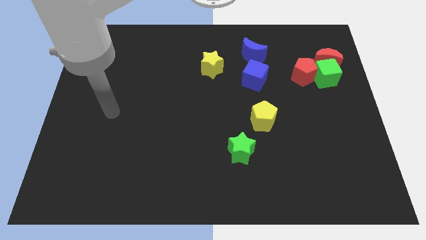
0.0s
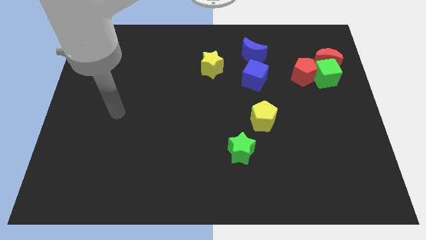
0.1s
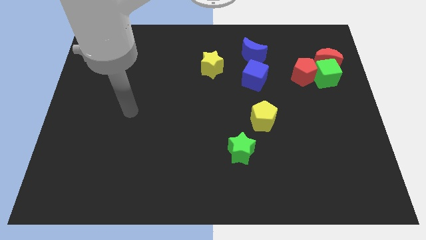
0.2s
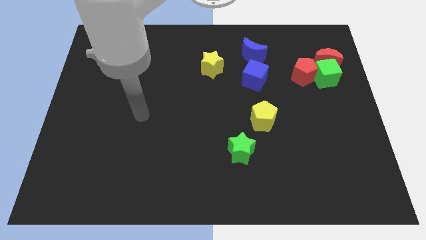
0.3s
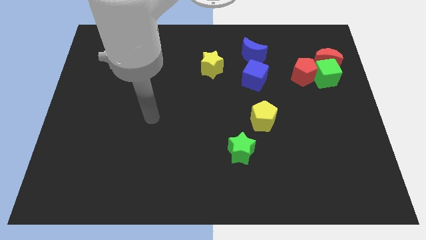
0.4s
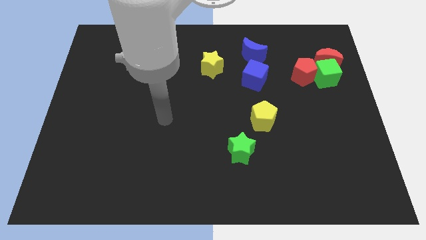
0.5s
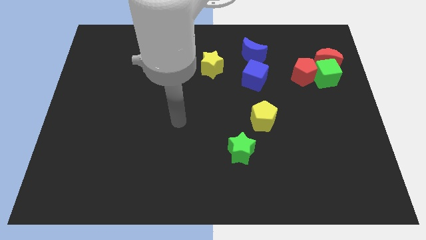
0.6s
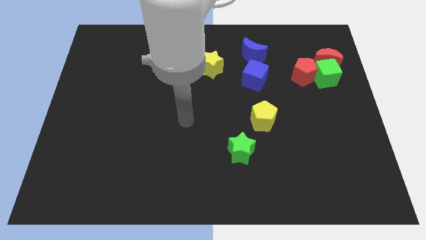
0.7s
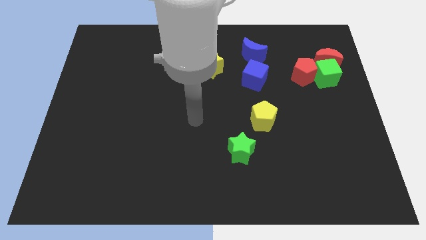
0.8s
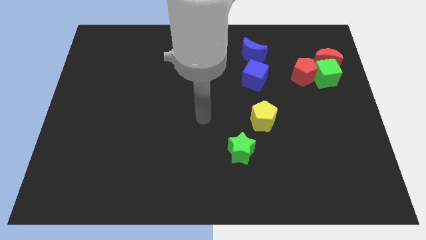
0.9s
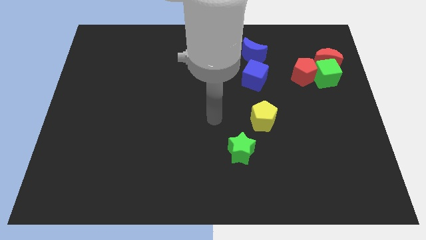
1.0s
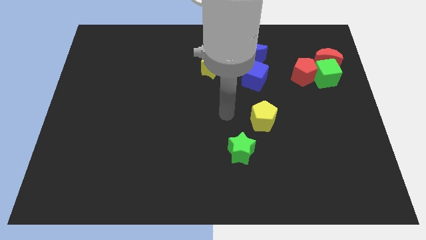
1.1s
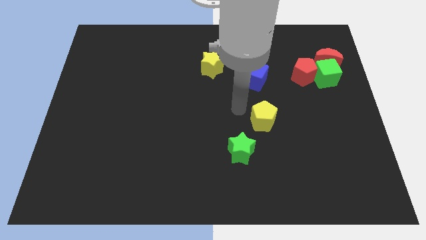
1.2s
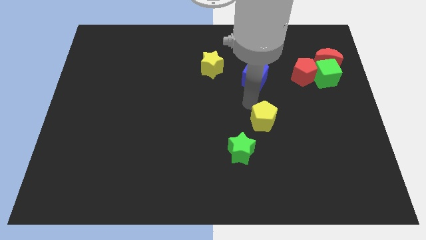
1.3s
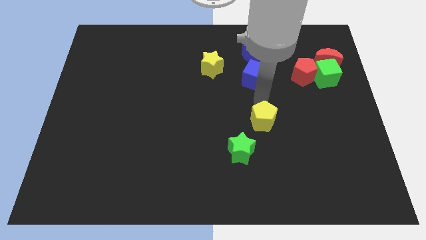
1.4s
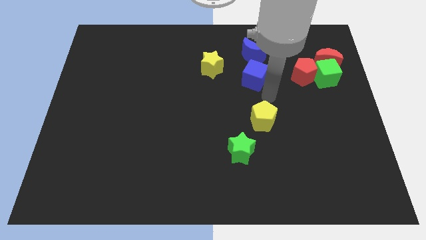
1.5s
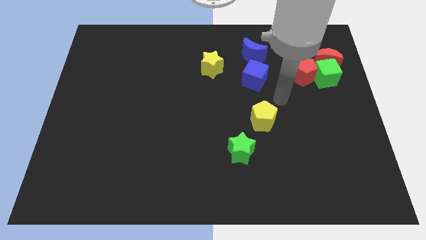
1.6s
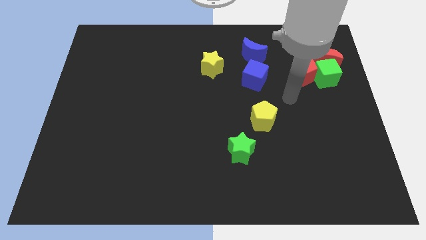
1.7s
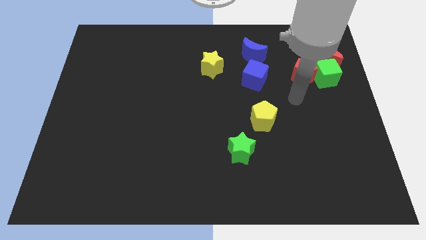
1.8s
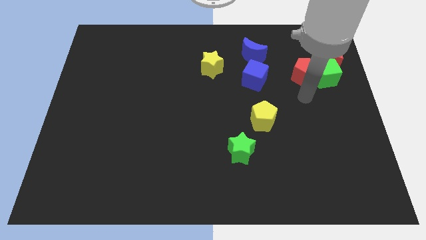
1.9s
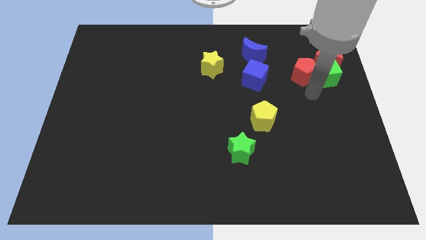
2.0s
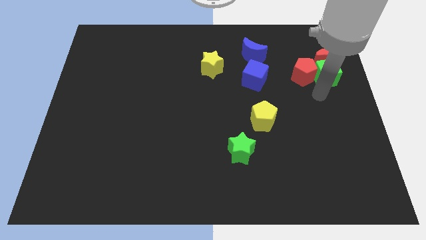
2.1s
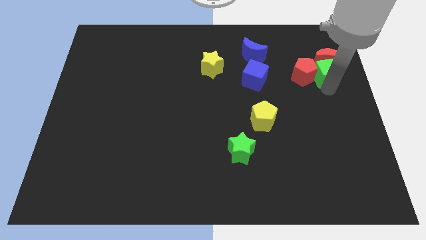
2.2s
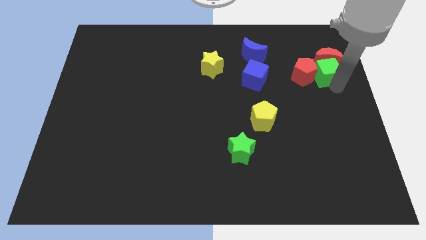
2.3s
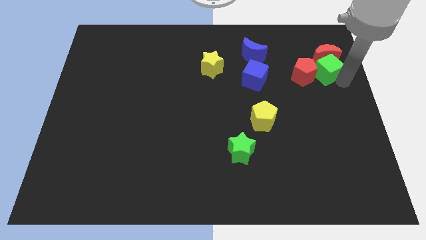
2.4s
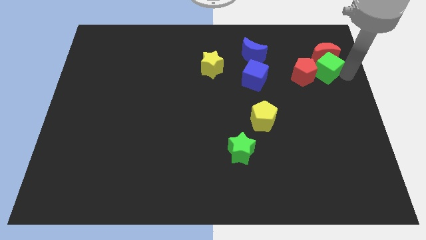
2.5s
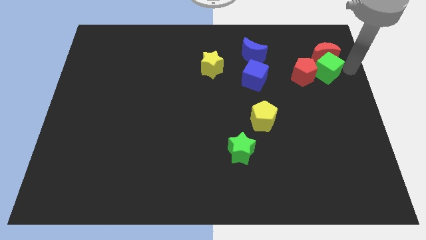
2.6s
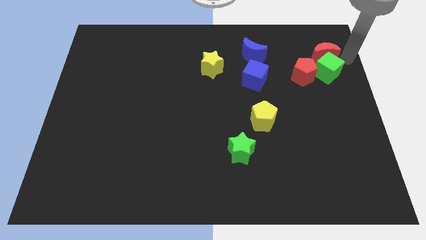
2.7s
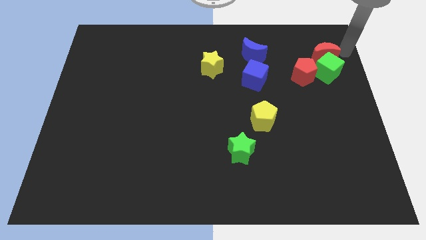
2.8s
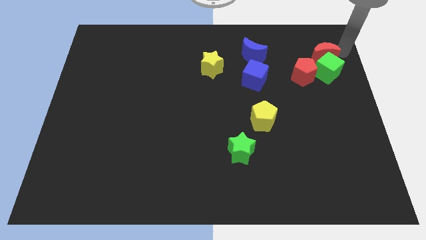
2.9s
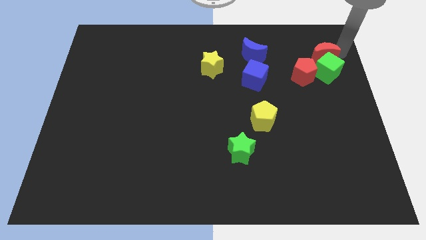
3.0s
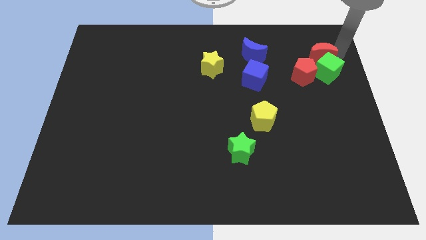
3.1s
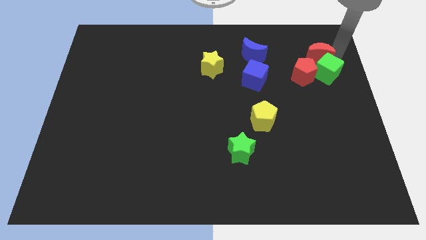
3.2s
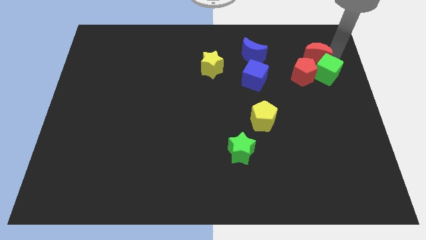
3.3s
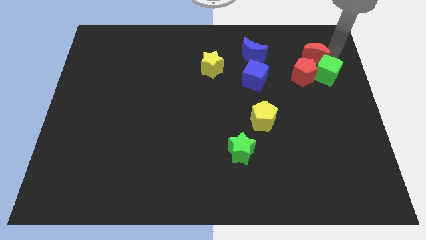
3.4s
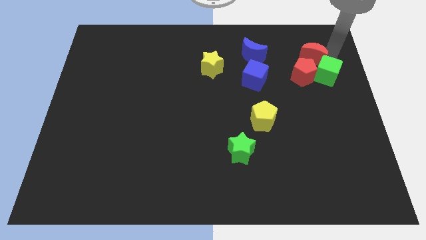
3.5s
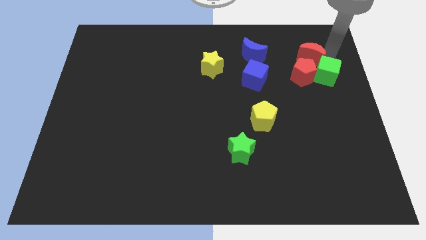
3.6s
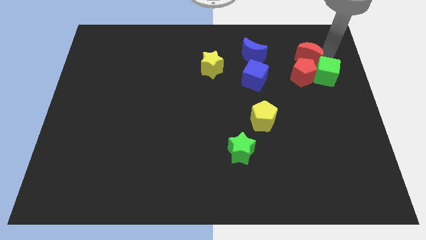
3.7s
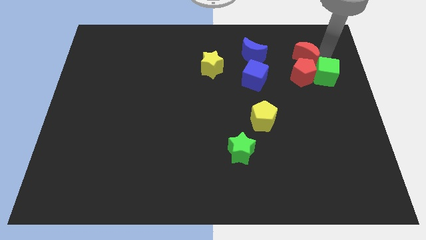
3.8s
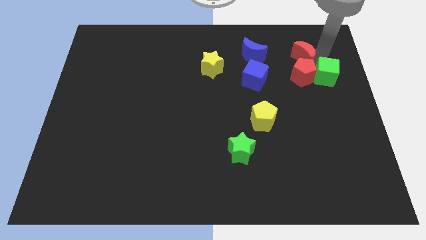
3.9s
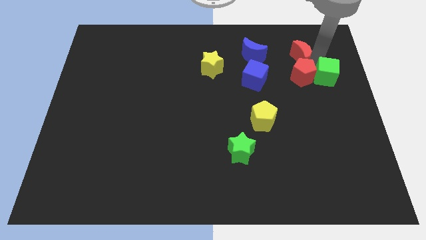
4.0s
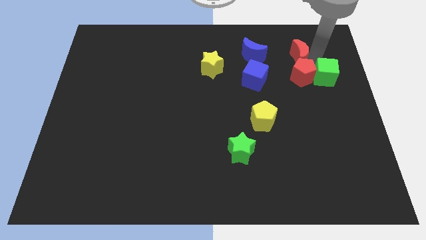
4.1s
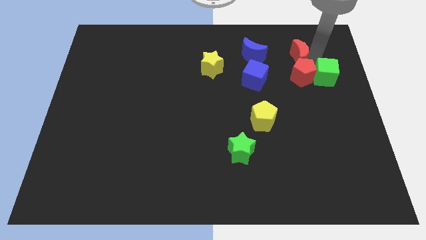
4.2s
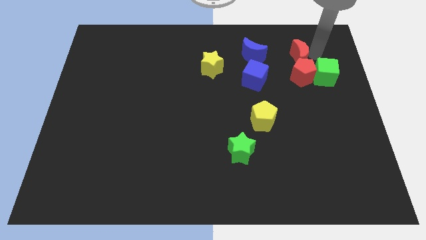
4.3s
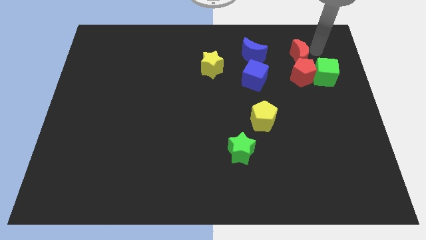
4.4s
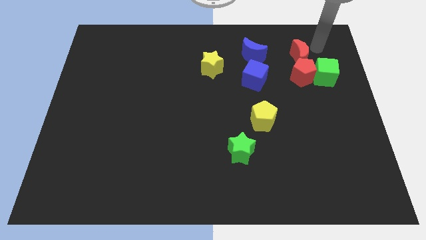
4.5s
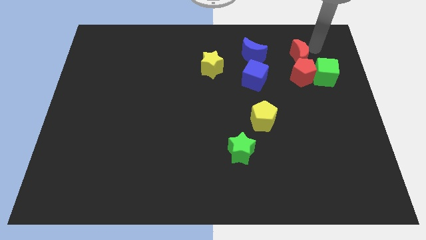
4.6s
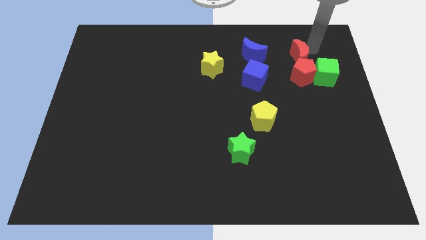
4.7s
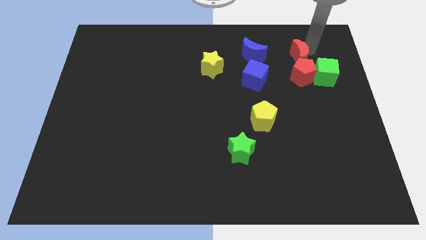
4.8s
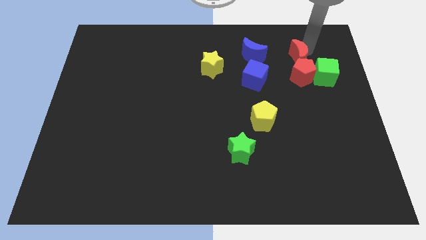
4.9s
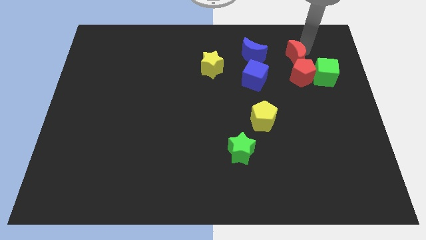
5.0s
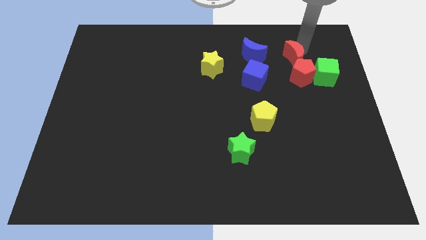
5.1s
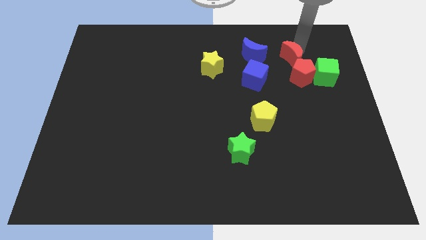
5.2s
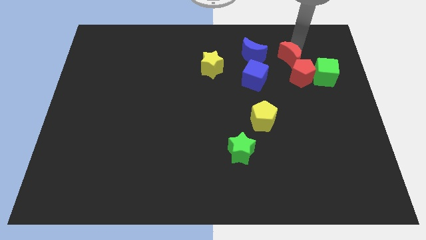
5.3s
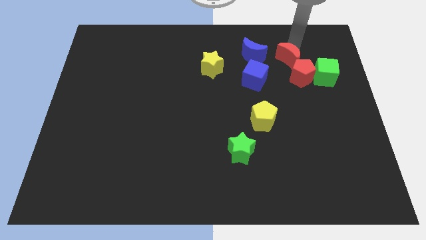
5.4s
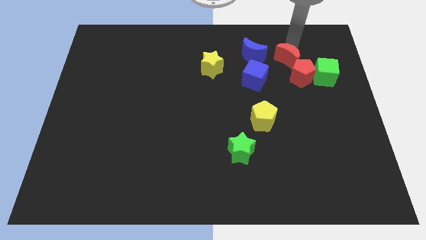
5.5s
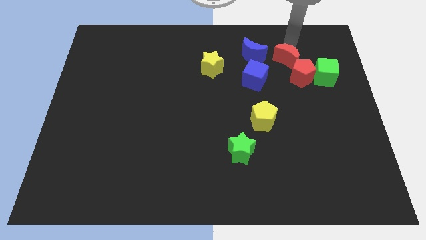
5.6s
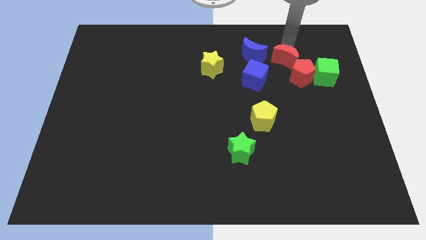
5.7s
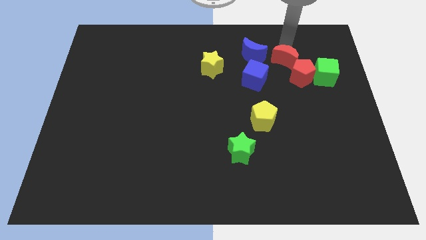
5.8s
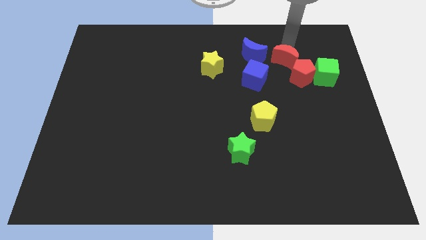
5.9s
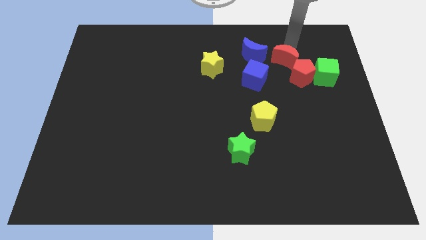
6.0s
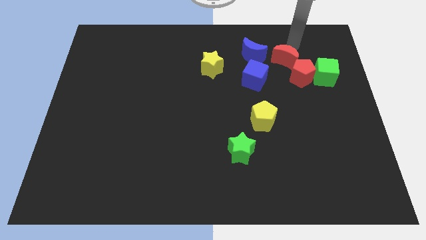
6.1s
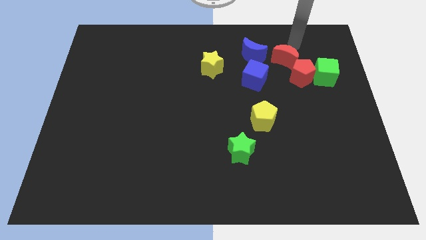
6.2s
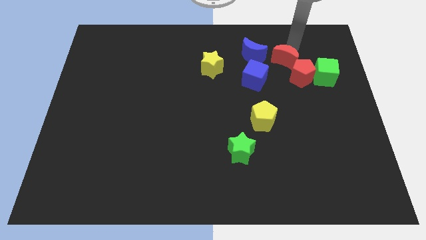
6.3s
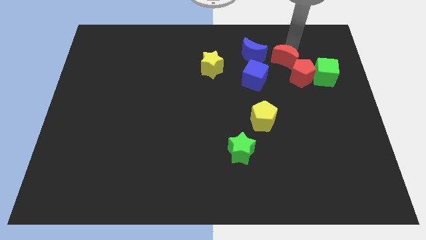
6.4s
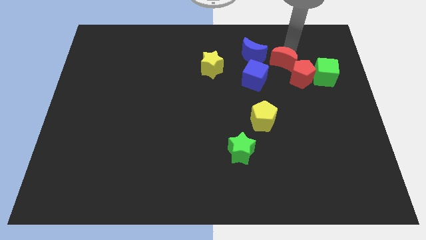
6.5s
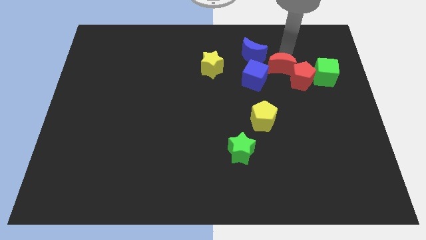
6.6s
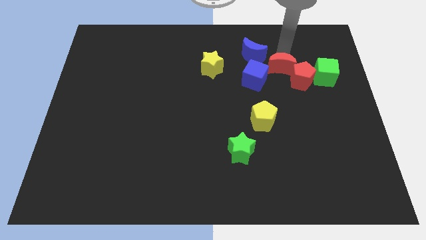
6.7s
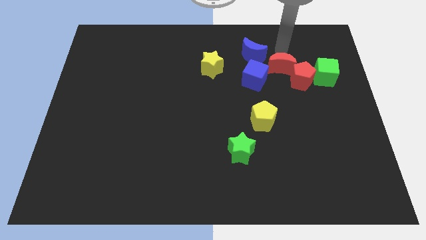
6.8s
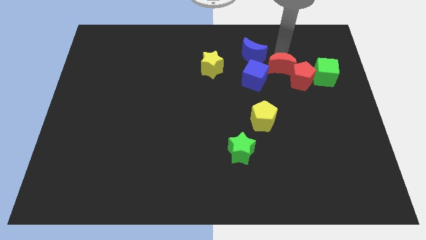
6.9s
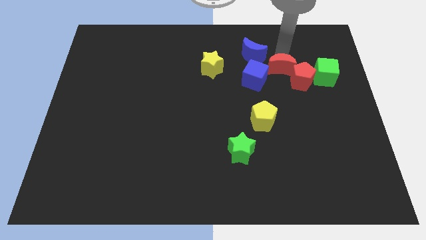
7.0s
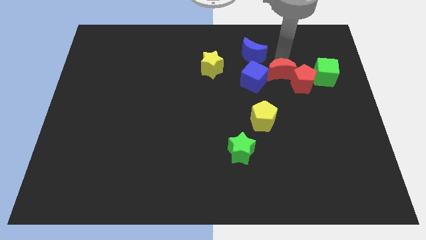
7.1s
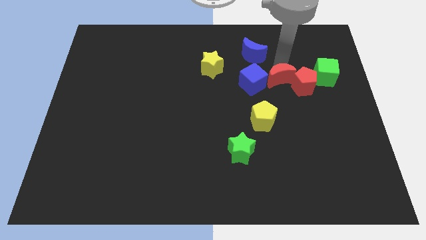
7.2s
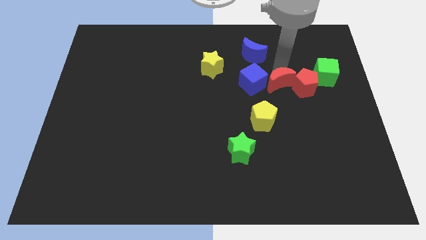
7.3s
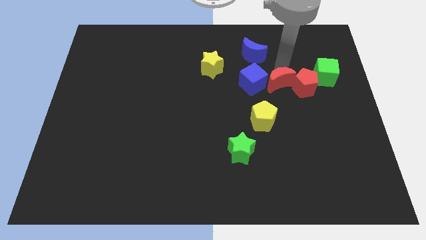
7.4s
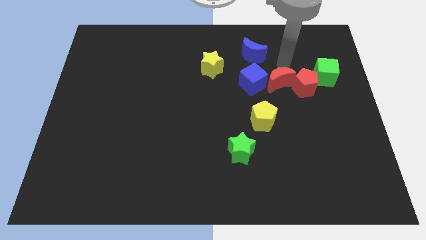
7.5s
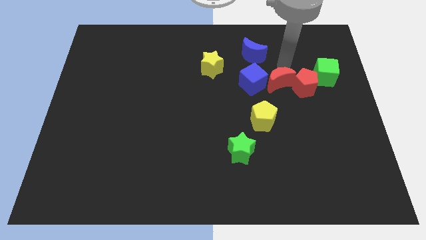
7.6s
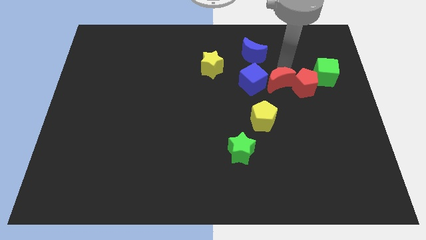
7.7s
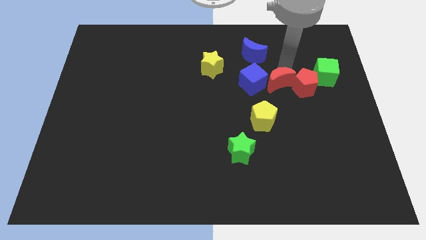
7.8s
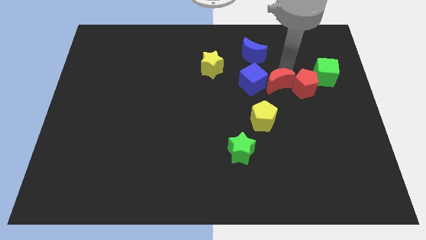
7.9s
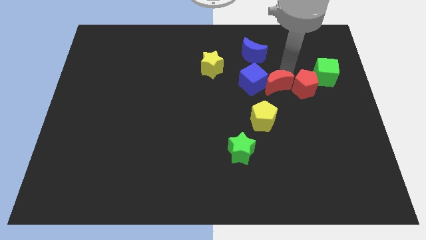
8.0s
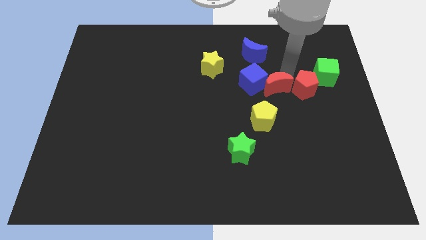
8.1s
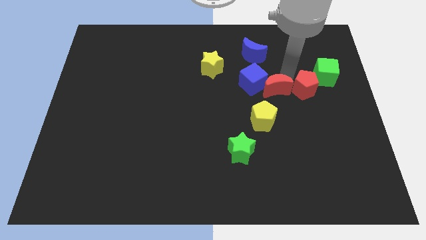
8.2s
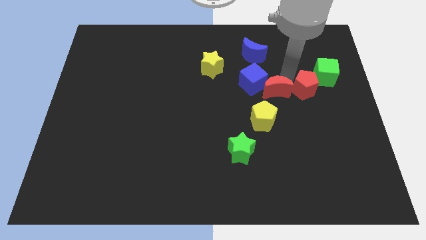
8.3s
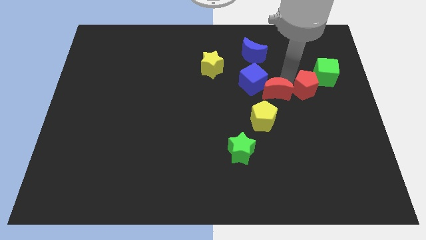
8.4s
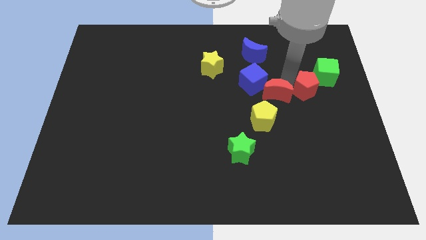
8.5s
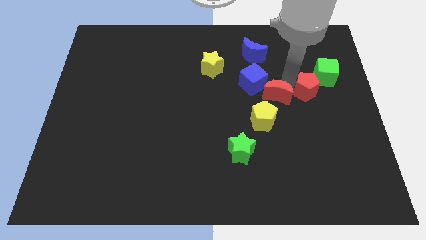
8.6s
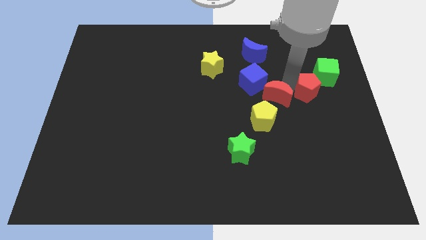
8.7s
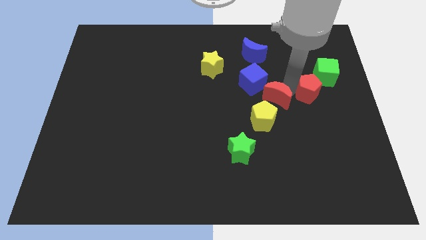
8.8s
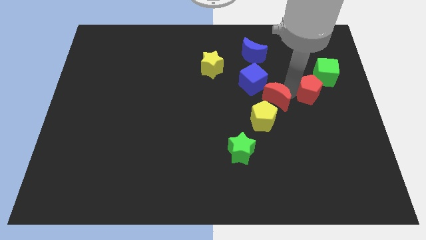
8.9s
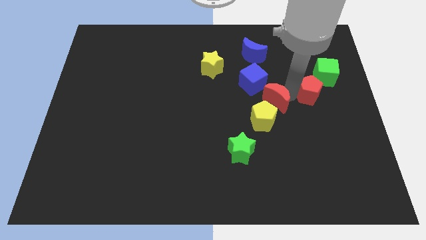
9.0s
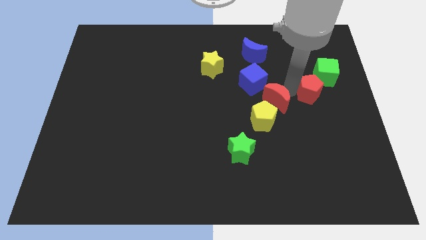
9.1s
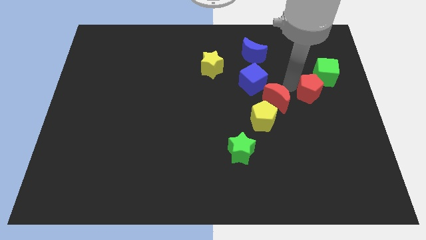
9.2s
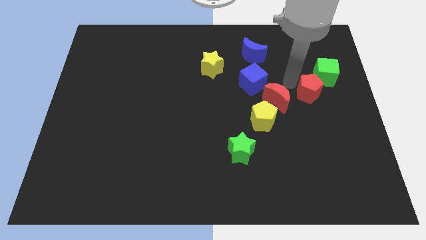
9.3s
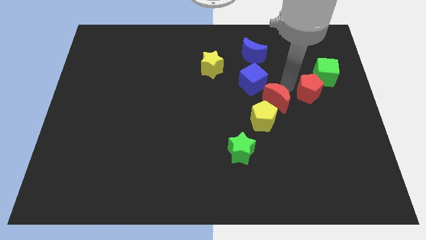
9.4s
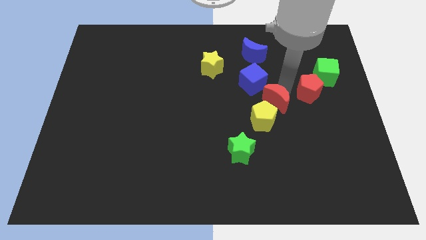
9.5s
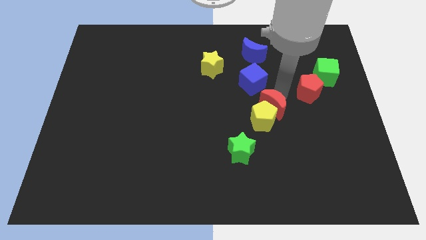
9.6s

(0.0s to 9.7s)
move the red moon towards the yellow pentagon
